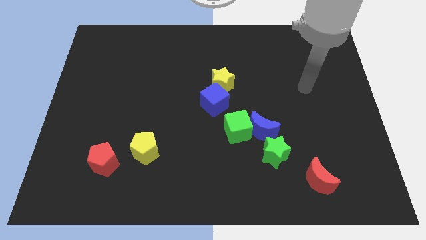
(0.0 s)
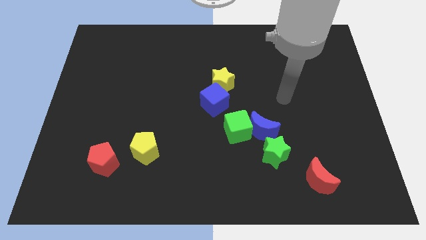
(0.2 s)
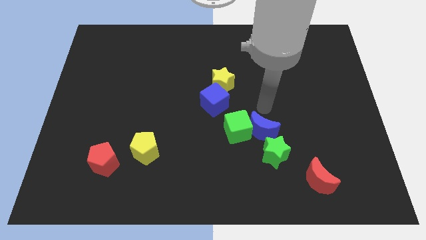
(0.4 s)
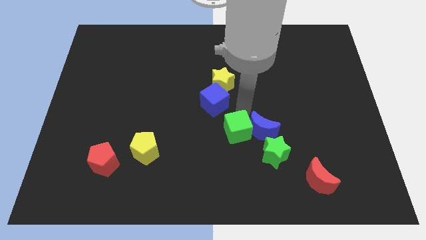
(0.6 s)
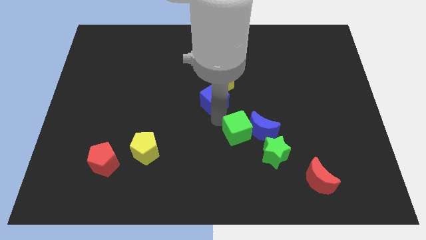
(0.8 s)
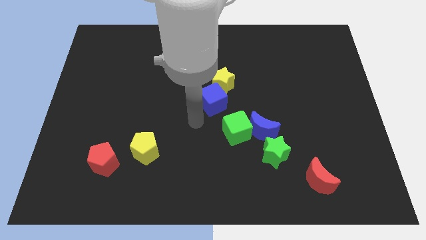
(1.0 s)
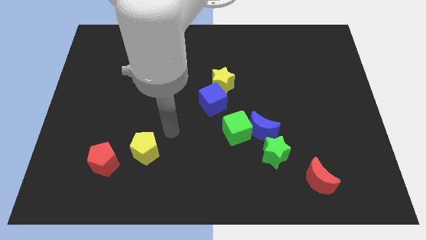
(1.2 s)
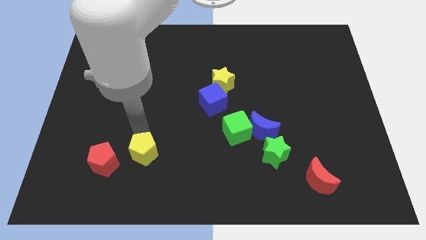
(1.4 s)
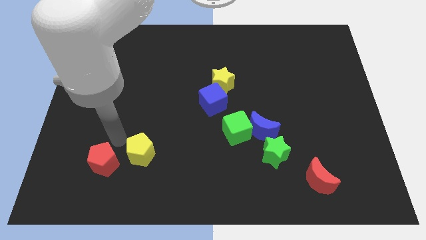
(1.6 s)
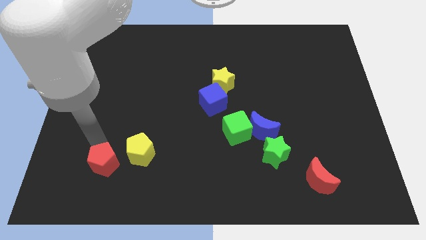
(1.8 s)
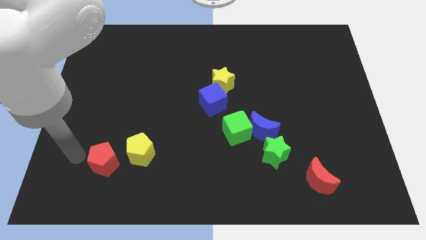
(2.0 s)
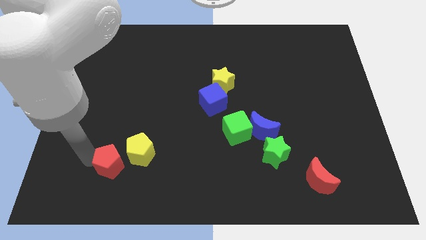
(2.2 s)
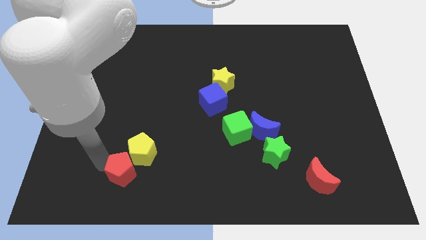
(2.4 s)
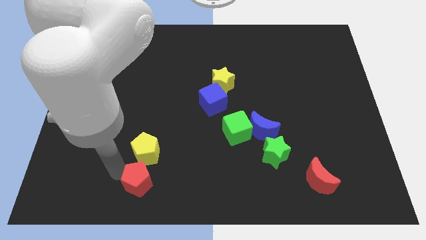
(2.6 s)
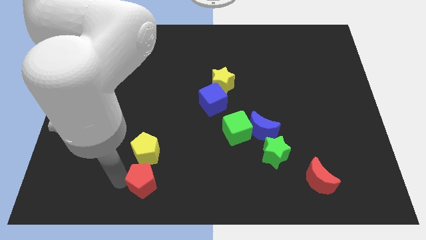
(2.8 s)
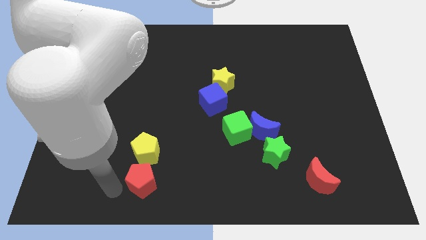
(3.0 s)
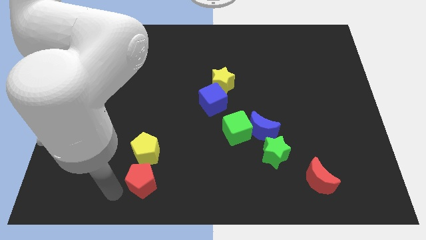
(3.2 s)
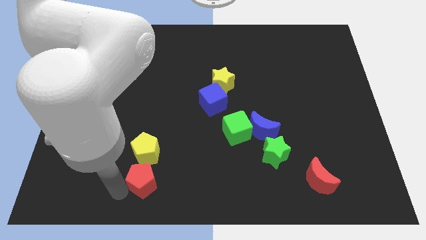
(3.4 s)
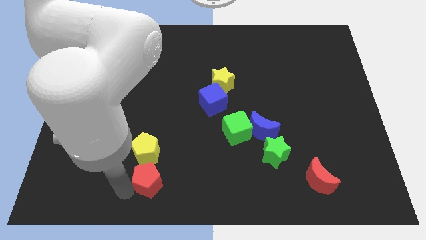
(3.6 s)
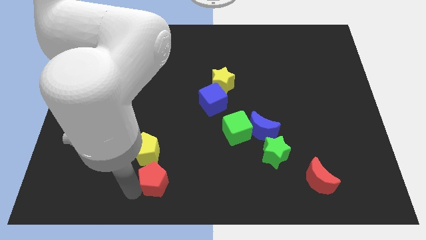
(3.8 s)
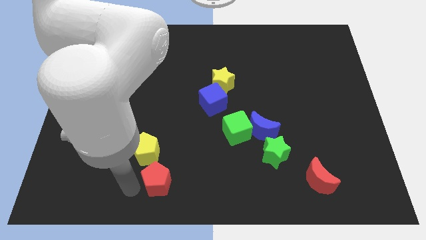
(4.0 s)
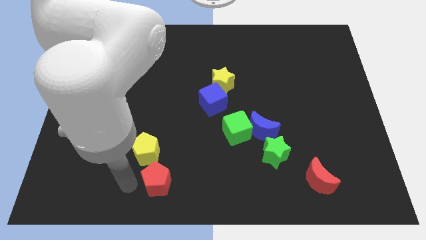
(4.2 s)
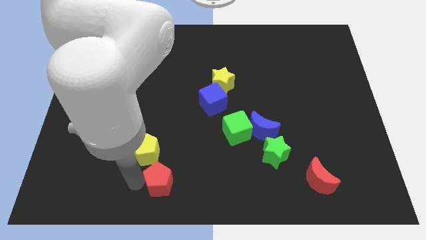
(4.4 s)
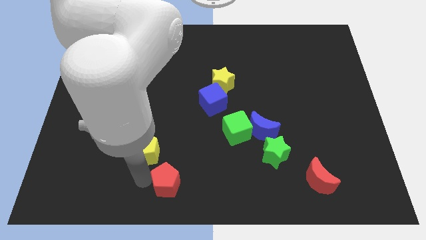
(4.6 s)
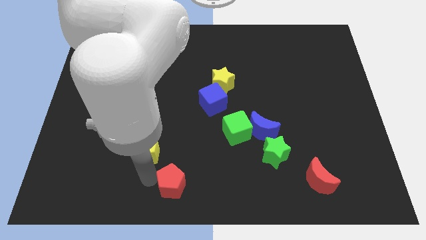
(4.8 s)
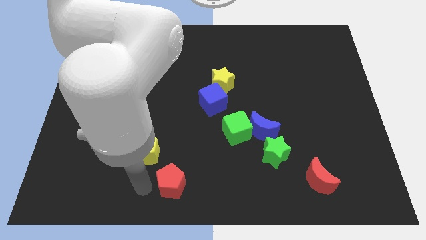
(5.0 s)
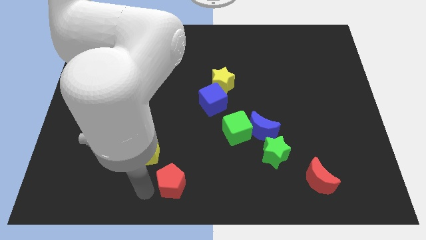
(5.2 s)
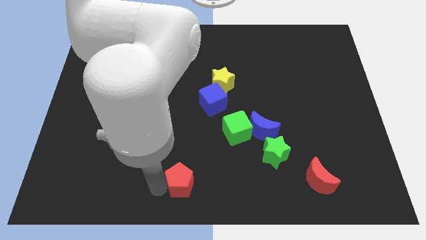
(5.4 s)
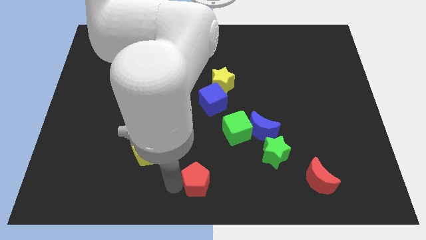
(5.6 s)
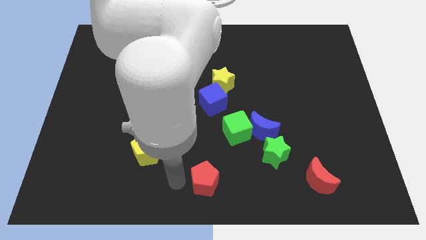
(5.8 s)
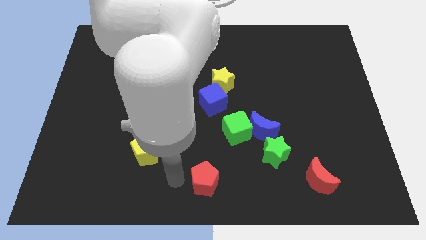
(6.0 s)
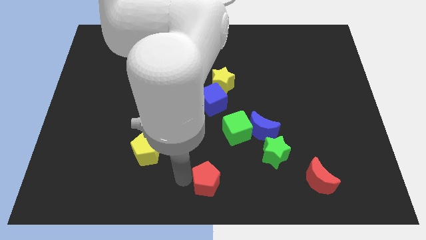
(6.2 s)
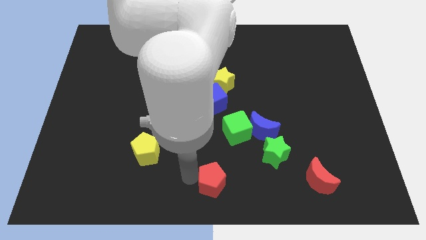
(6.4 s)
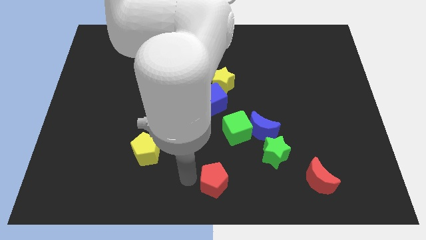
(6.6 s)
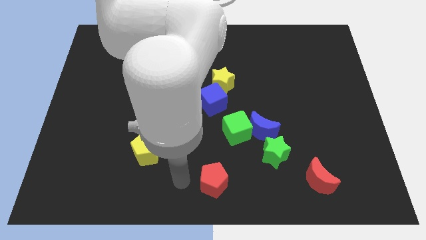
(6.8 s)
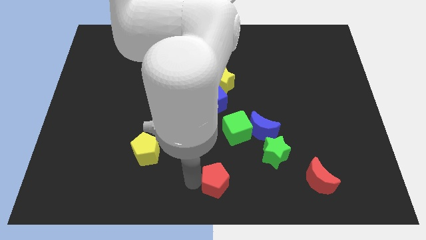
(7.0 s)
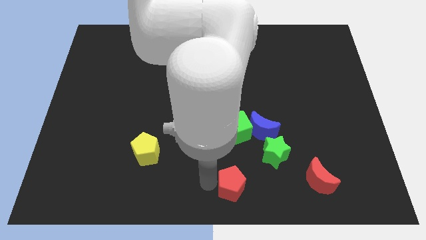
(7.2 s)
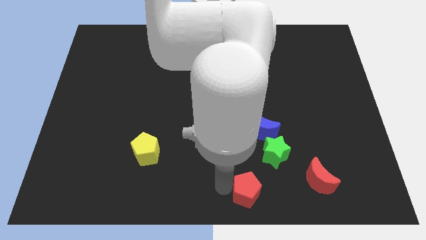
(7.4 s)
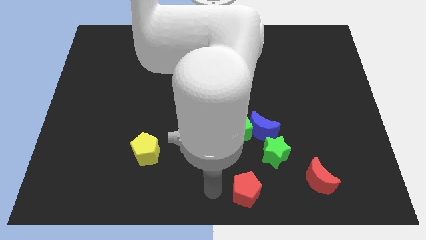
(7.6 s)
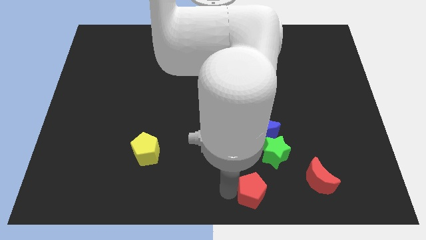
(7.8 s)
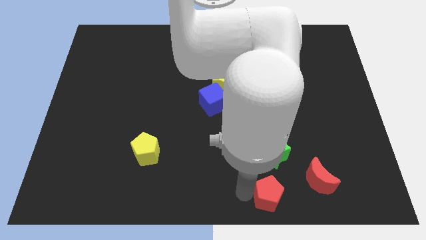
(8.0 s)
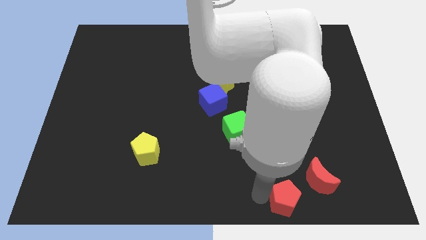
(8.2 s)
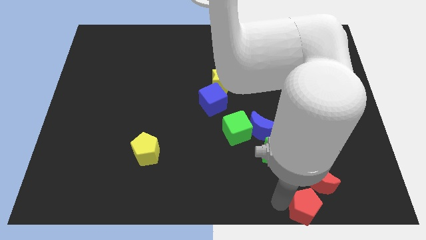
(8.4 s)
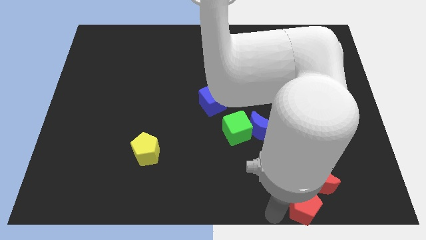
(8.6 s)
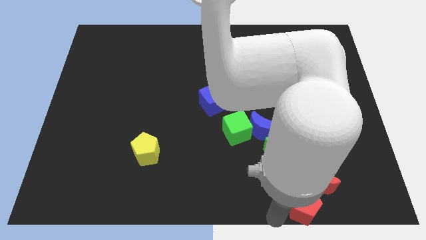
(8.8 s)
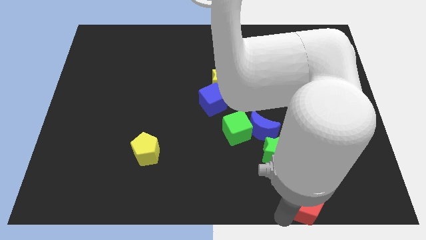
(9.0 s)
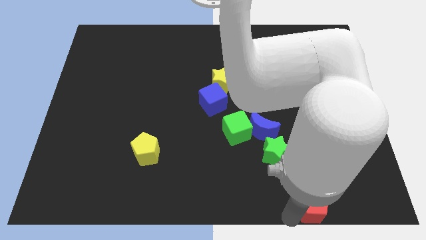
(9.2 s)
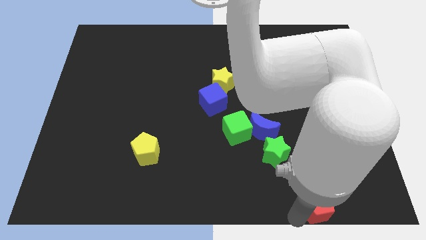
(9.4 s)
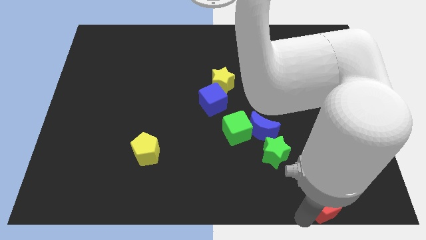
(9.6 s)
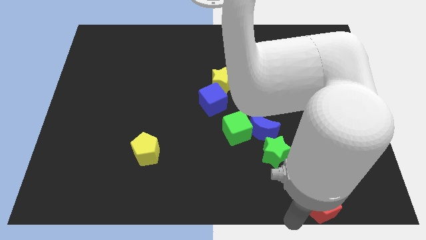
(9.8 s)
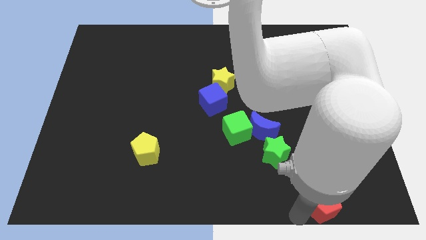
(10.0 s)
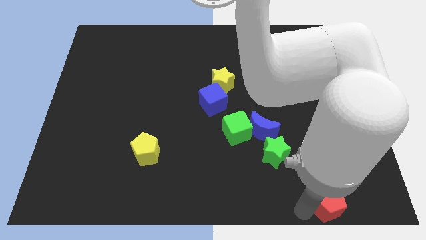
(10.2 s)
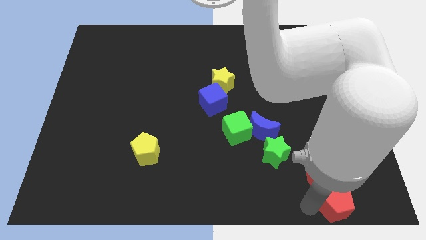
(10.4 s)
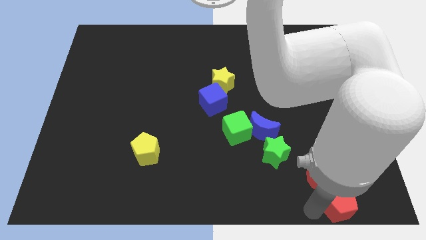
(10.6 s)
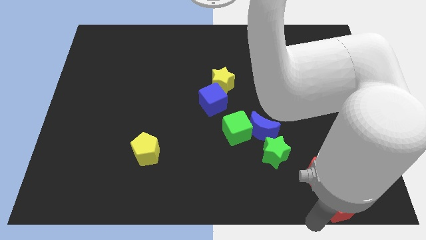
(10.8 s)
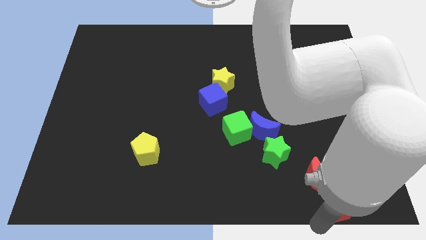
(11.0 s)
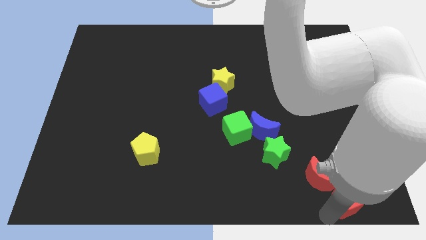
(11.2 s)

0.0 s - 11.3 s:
put the red pentagon to the bottom right of the board

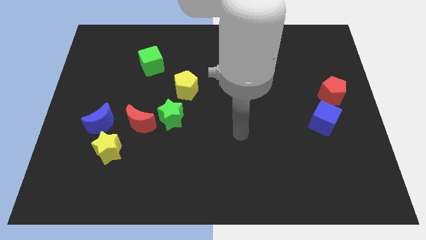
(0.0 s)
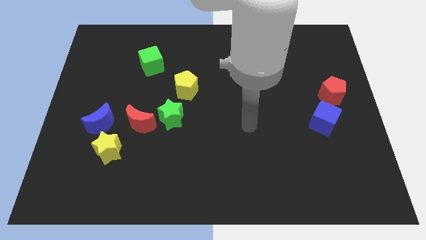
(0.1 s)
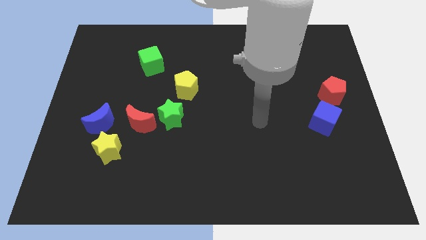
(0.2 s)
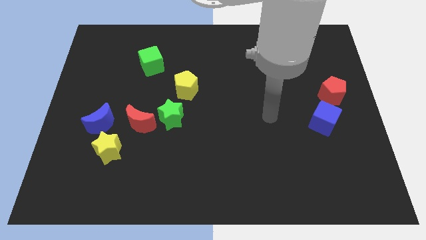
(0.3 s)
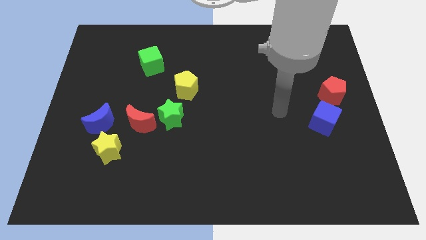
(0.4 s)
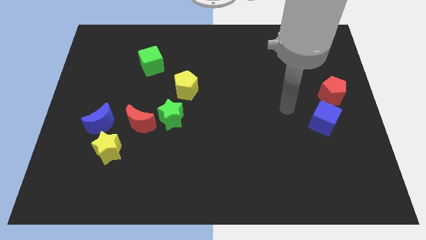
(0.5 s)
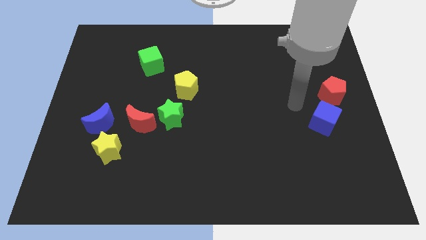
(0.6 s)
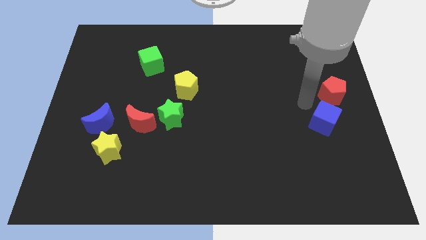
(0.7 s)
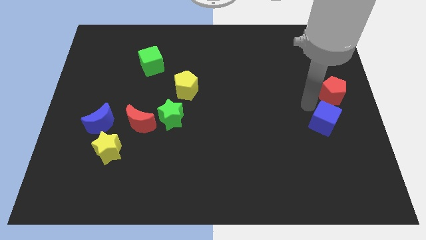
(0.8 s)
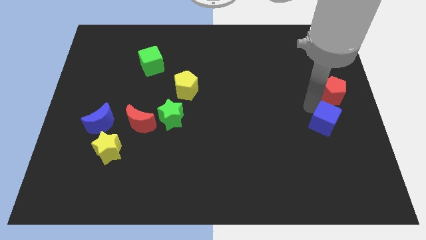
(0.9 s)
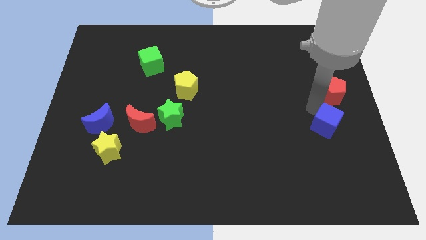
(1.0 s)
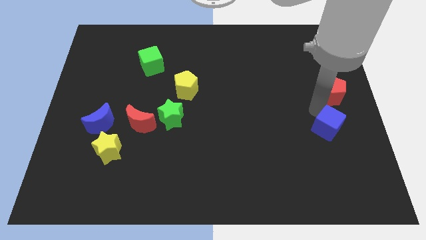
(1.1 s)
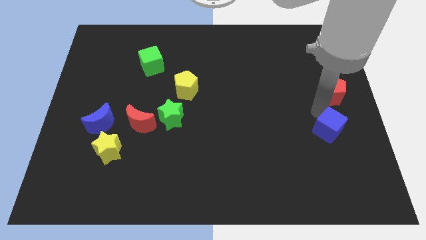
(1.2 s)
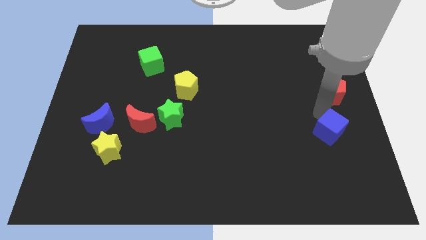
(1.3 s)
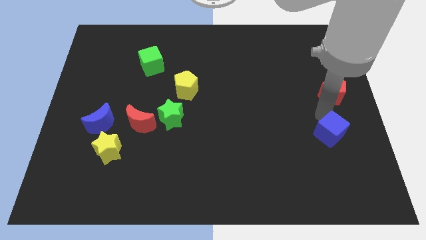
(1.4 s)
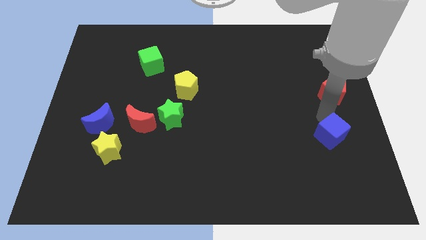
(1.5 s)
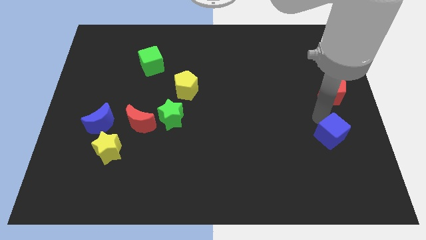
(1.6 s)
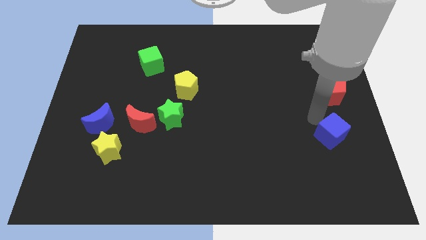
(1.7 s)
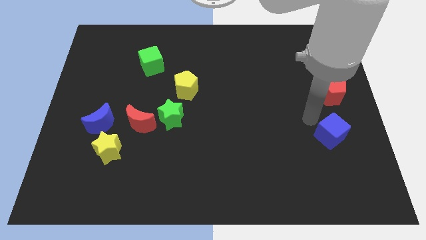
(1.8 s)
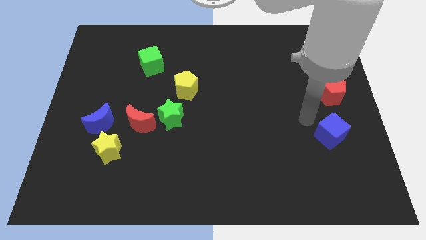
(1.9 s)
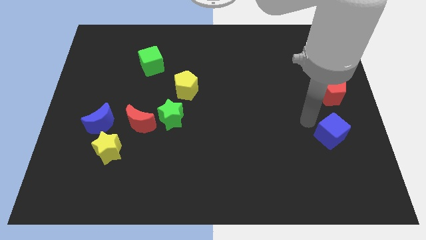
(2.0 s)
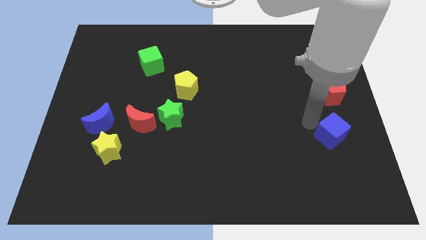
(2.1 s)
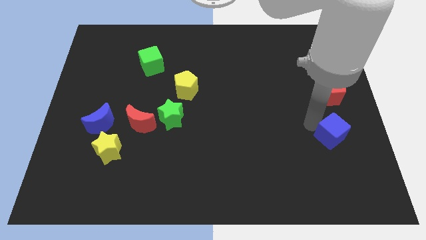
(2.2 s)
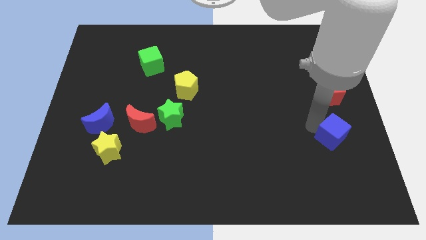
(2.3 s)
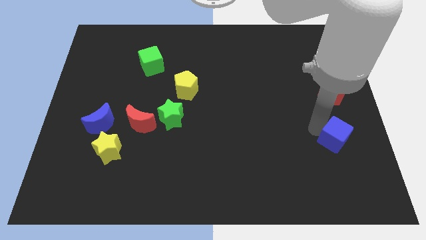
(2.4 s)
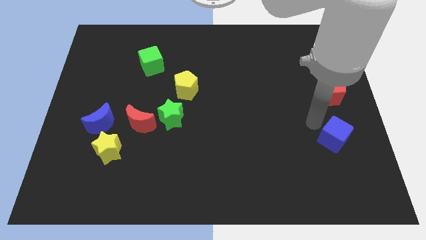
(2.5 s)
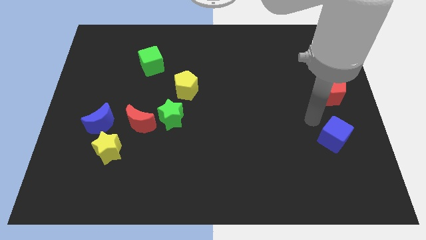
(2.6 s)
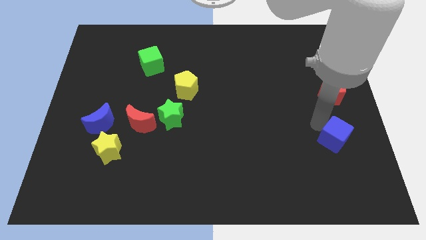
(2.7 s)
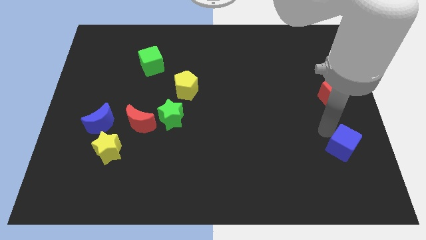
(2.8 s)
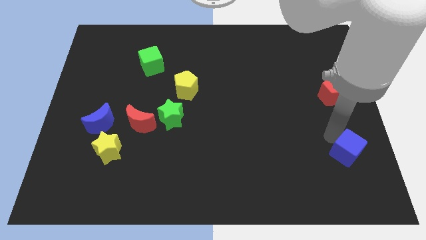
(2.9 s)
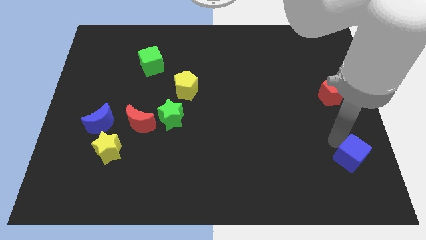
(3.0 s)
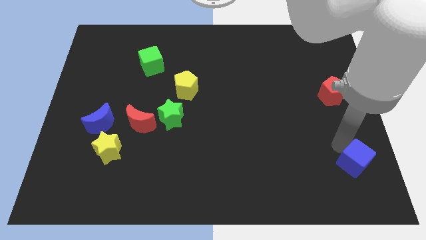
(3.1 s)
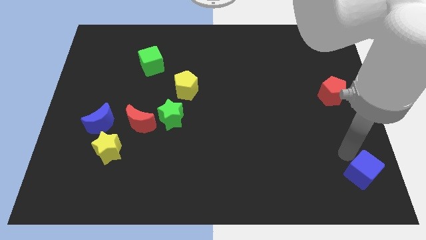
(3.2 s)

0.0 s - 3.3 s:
move the blue cube to the bottom right corner
